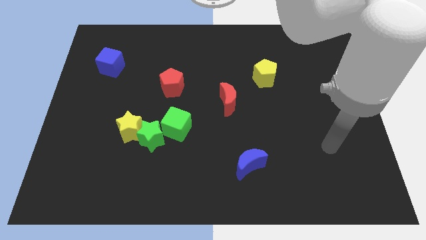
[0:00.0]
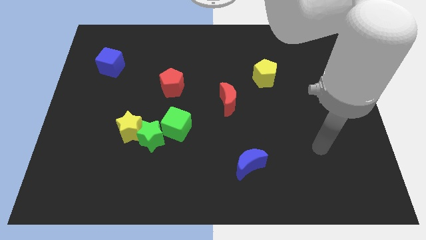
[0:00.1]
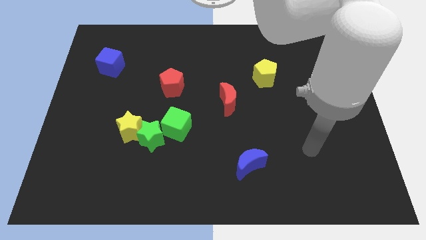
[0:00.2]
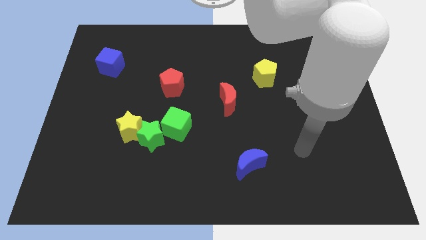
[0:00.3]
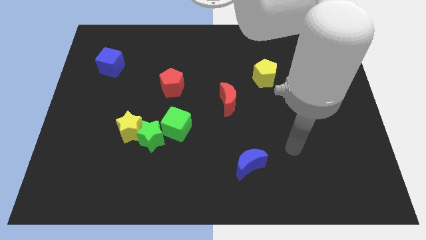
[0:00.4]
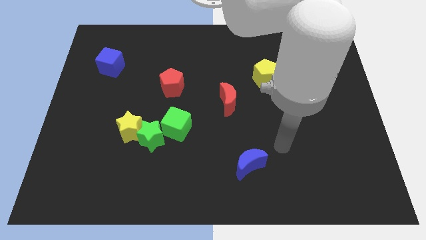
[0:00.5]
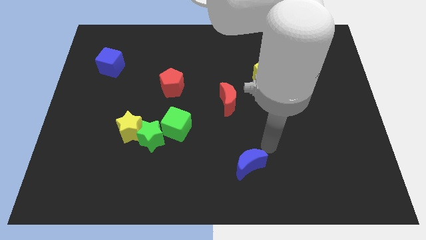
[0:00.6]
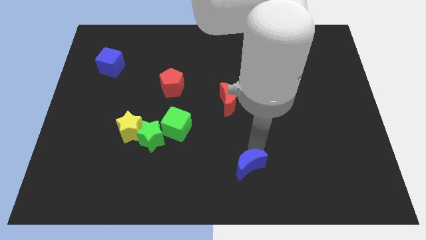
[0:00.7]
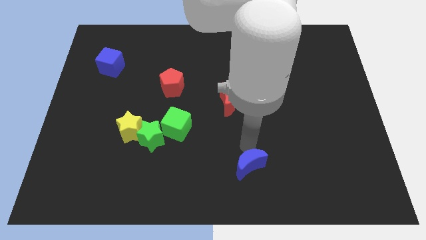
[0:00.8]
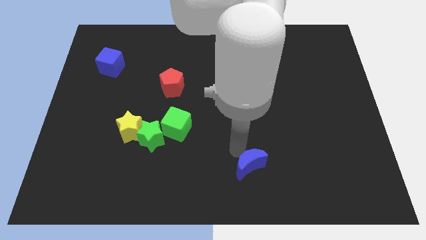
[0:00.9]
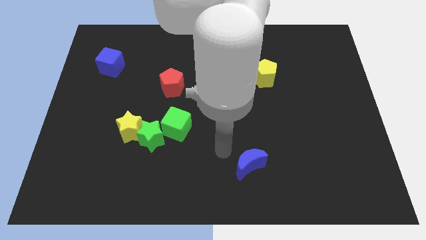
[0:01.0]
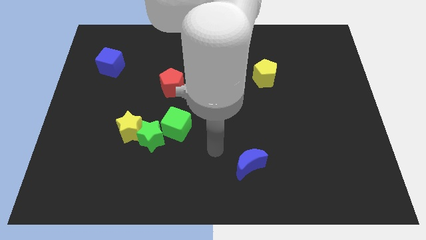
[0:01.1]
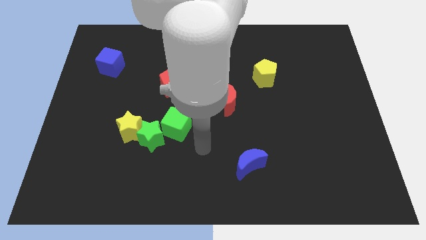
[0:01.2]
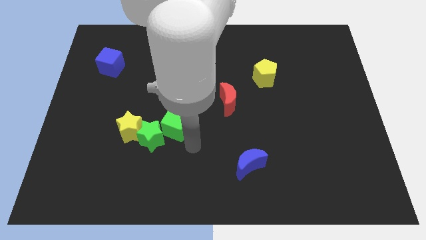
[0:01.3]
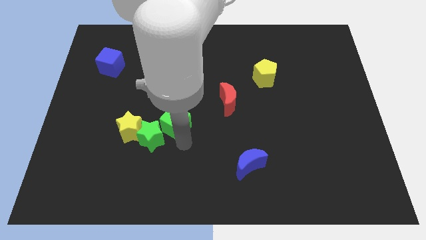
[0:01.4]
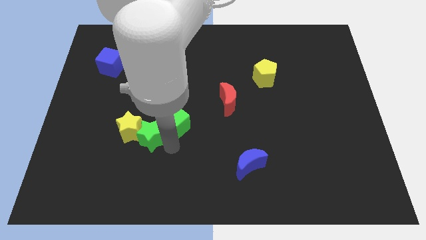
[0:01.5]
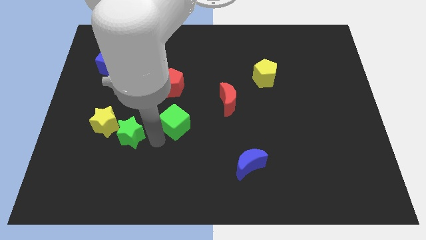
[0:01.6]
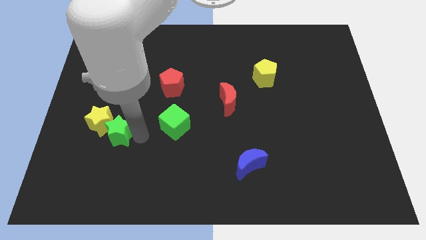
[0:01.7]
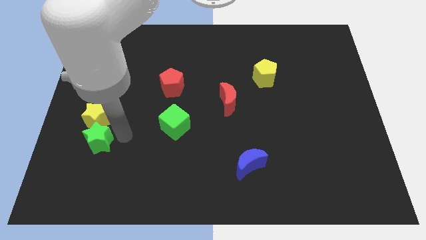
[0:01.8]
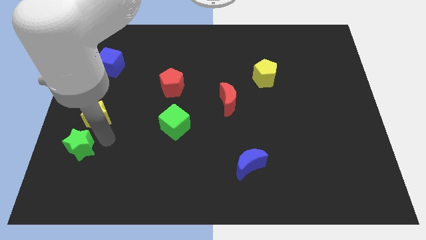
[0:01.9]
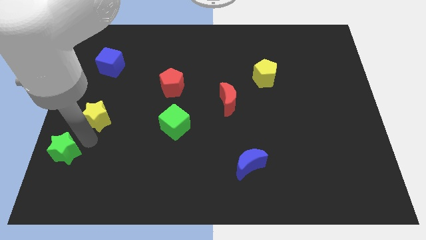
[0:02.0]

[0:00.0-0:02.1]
move the yellow star away from the green star

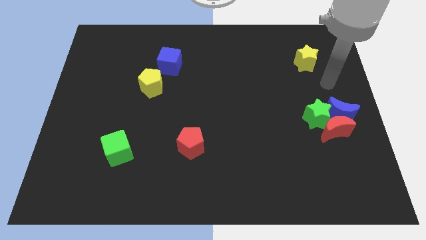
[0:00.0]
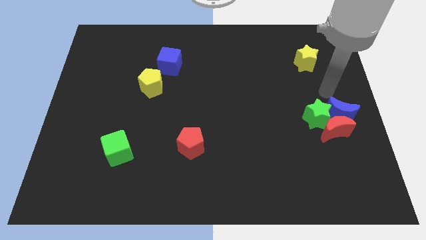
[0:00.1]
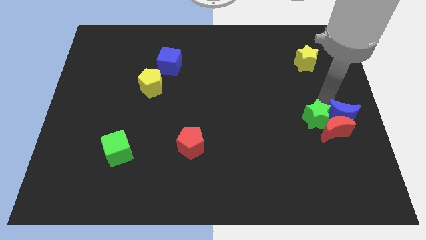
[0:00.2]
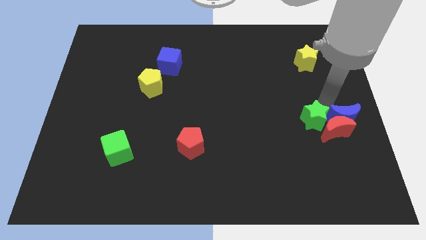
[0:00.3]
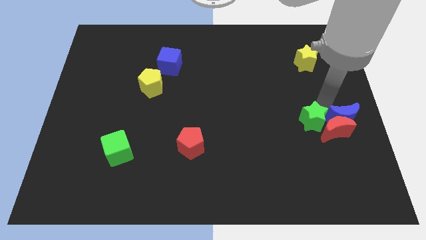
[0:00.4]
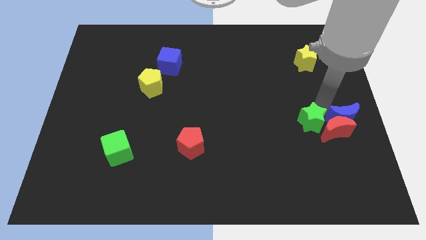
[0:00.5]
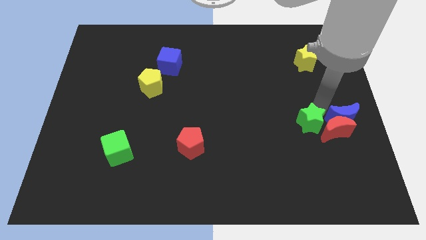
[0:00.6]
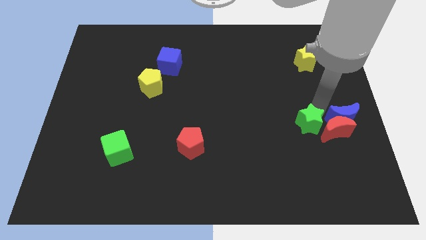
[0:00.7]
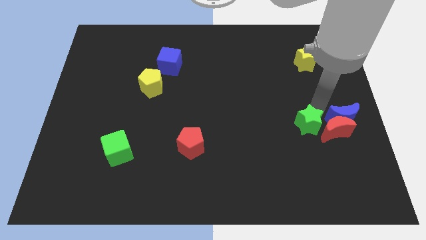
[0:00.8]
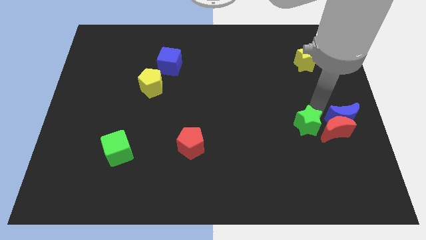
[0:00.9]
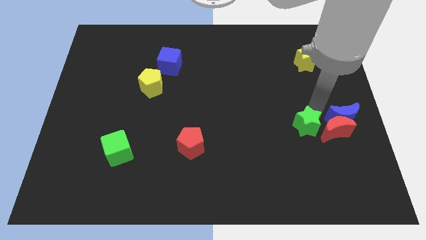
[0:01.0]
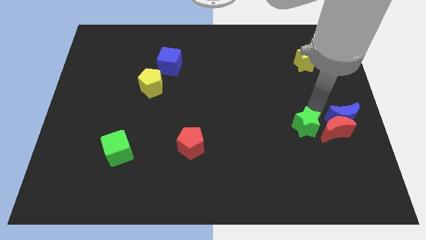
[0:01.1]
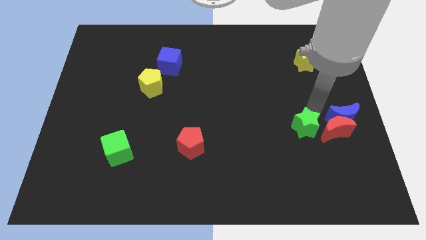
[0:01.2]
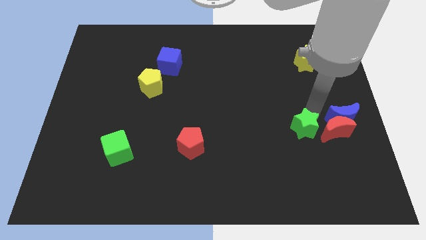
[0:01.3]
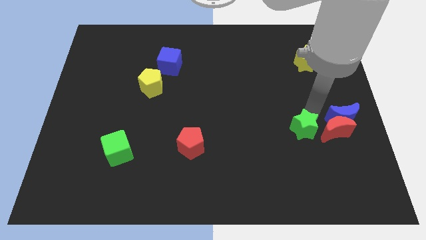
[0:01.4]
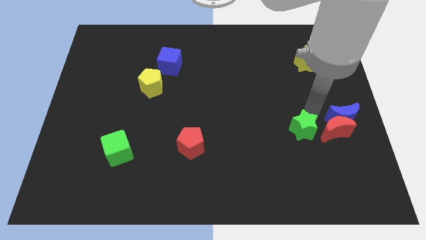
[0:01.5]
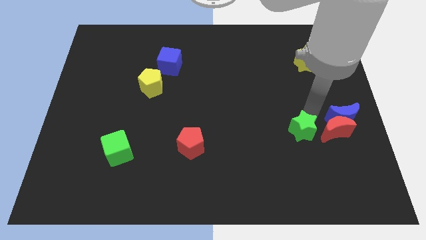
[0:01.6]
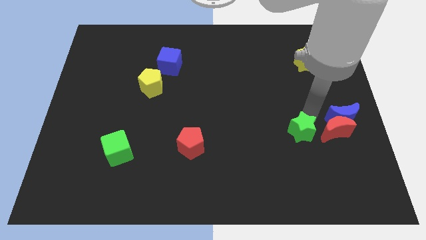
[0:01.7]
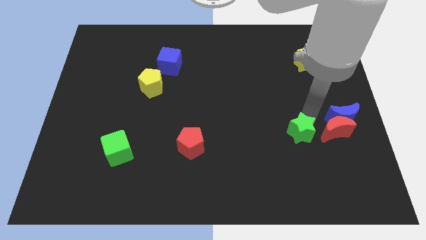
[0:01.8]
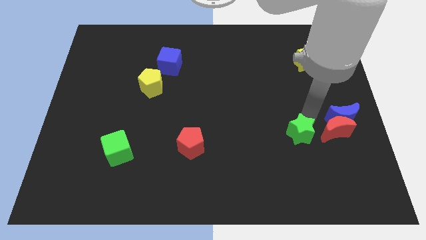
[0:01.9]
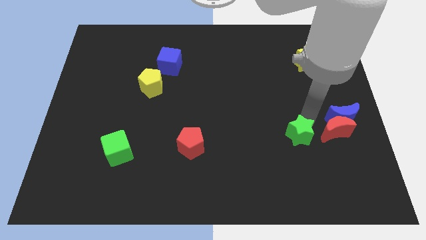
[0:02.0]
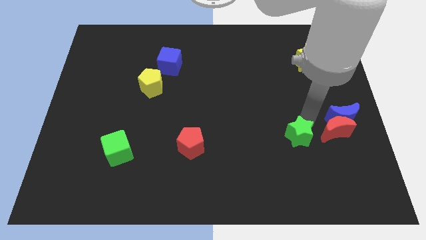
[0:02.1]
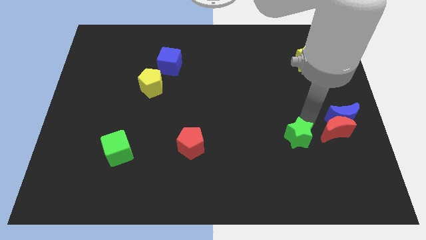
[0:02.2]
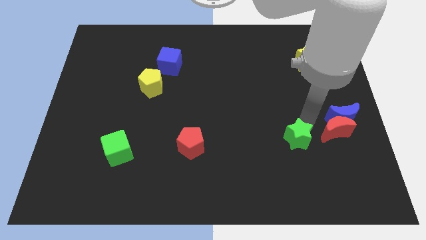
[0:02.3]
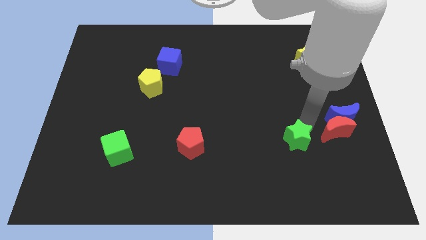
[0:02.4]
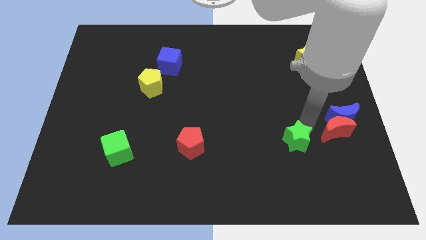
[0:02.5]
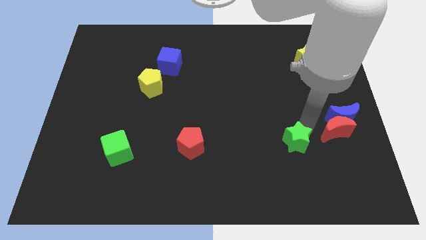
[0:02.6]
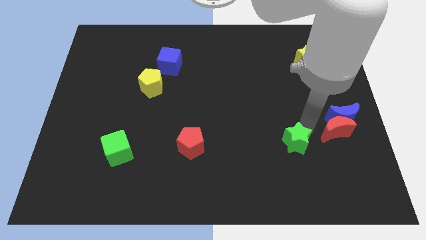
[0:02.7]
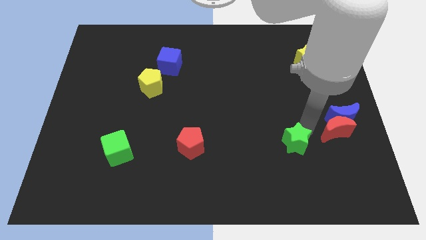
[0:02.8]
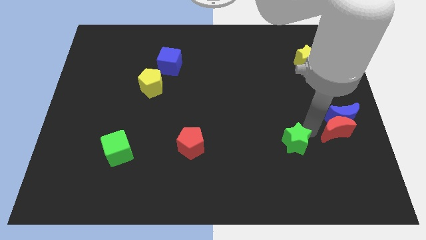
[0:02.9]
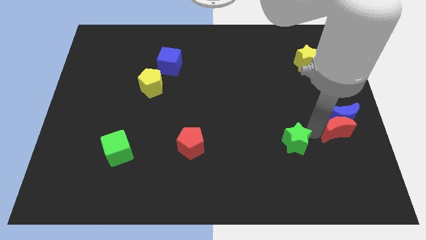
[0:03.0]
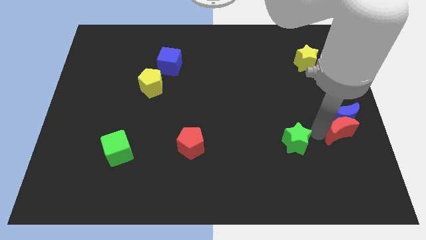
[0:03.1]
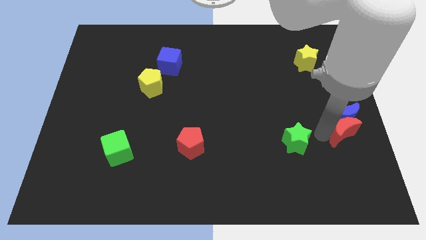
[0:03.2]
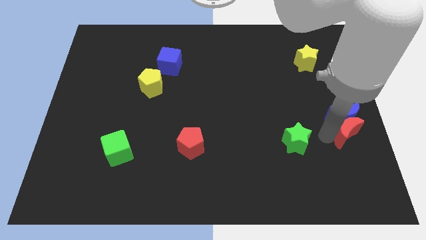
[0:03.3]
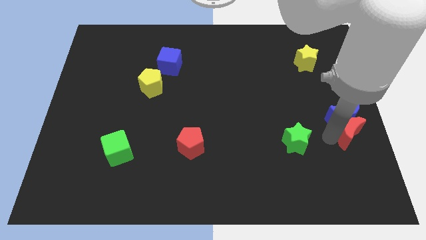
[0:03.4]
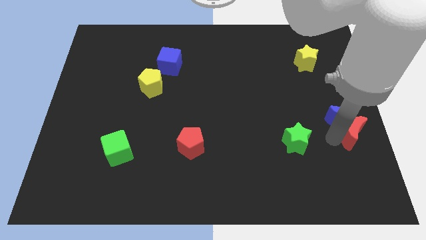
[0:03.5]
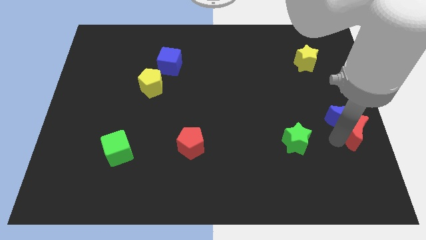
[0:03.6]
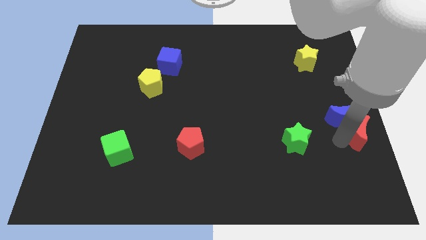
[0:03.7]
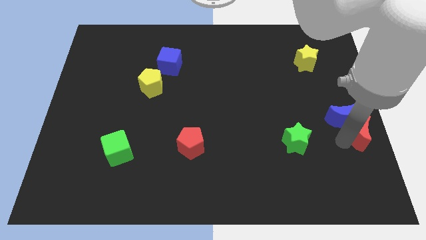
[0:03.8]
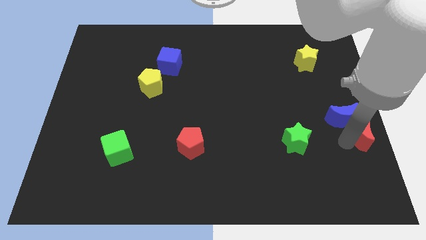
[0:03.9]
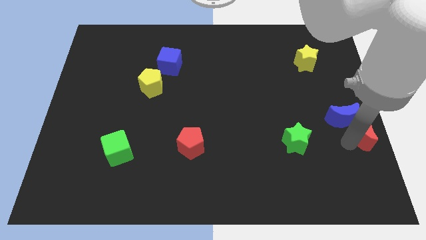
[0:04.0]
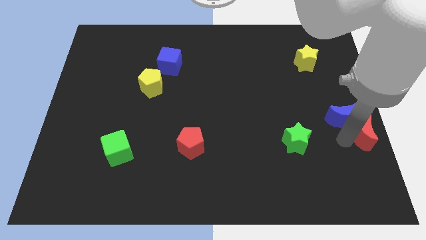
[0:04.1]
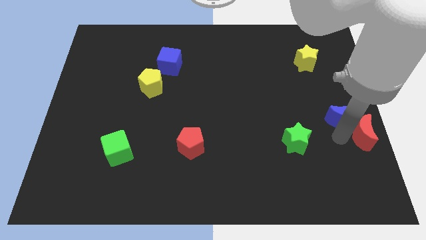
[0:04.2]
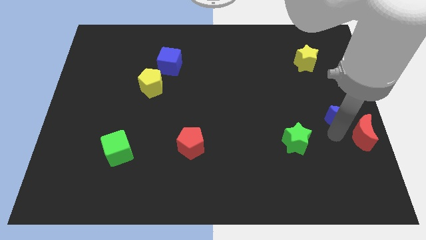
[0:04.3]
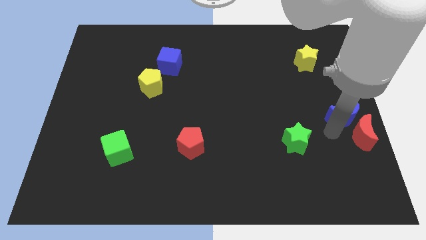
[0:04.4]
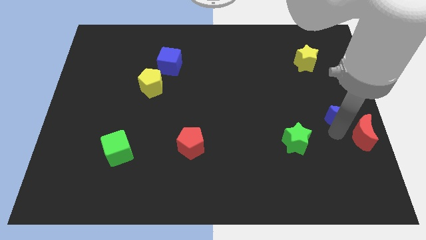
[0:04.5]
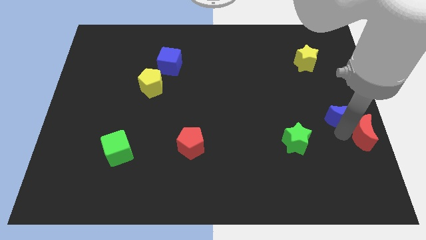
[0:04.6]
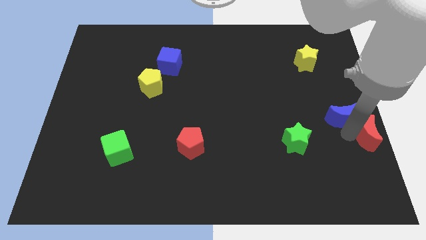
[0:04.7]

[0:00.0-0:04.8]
separate the red moon from the blue moon and green star

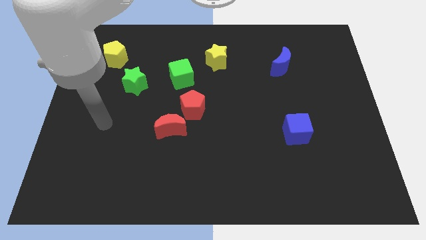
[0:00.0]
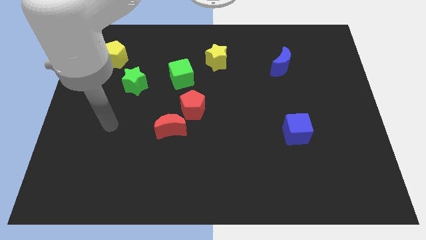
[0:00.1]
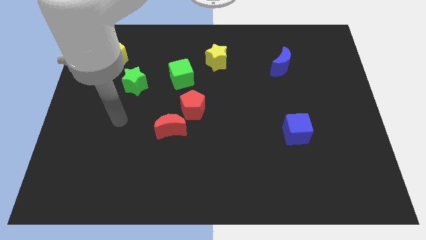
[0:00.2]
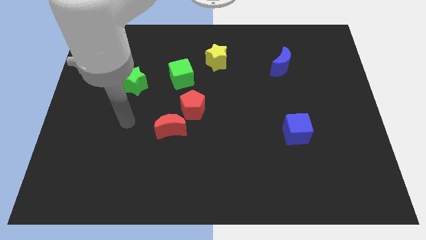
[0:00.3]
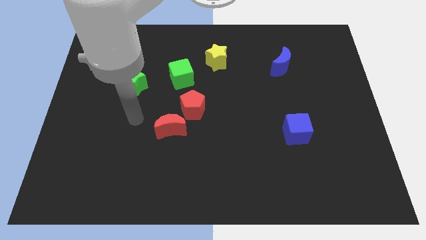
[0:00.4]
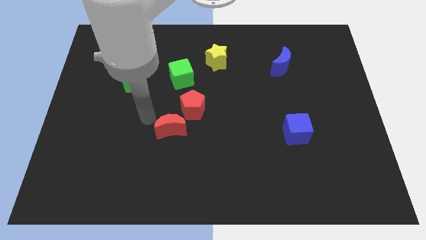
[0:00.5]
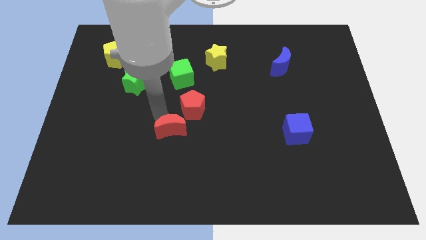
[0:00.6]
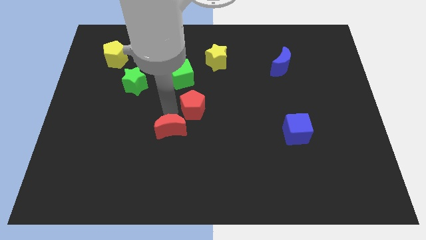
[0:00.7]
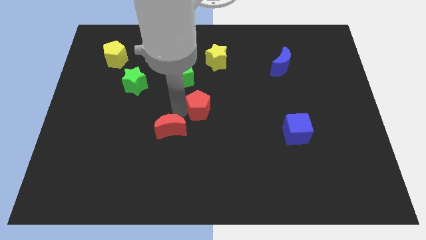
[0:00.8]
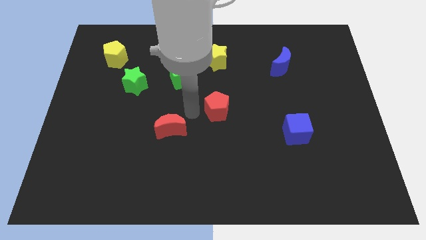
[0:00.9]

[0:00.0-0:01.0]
move the red moon away from the red pentagon

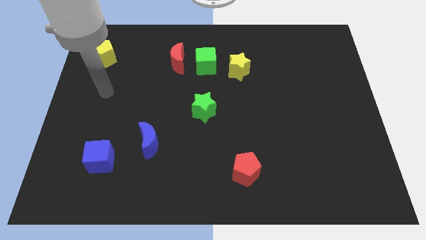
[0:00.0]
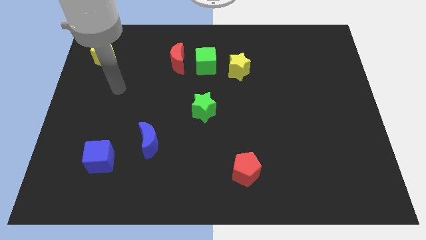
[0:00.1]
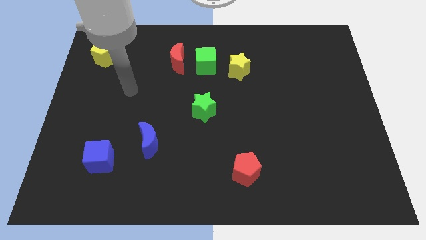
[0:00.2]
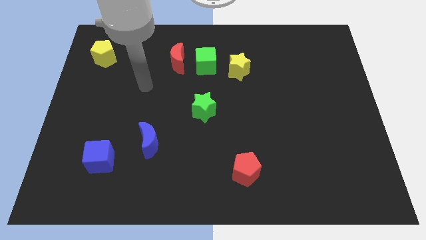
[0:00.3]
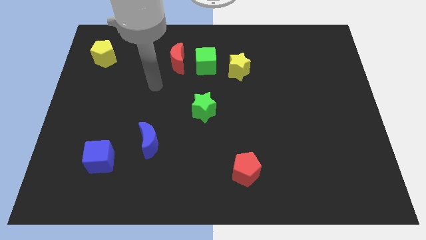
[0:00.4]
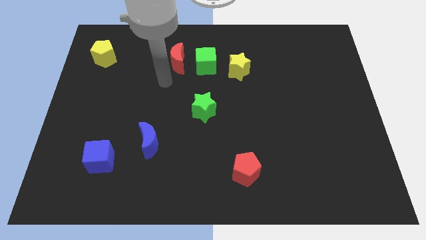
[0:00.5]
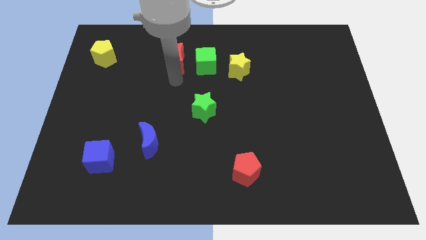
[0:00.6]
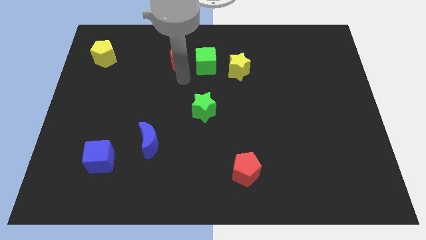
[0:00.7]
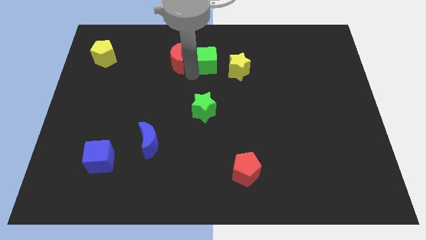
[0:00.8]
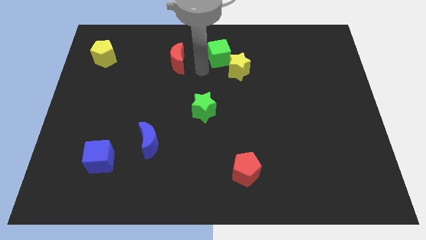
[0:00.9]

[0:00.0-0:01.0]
move the red moon away from the green cube

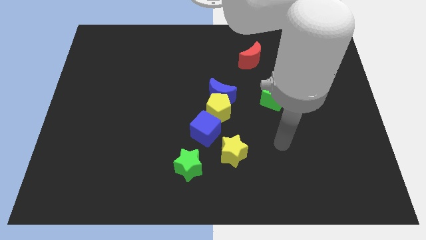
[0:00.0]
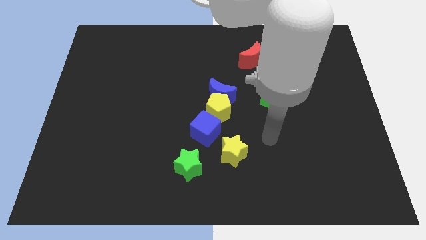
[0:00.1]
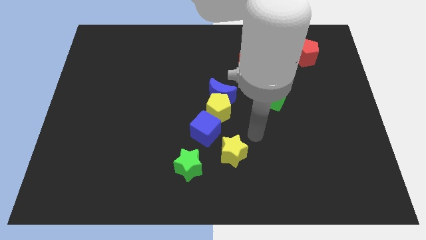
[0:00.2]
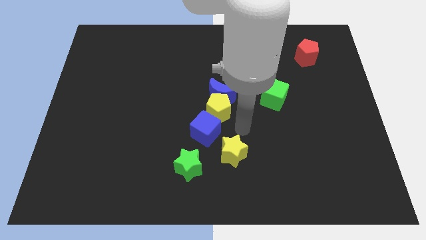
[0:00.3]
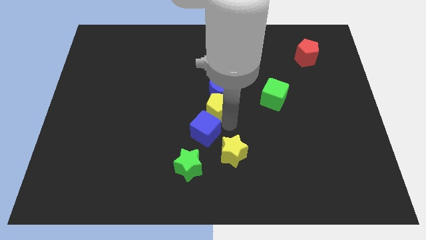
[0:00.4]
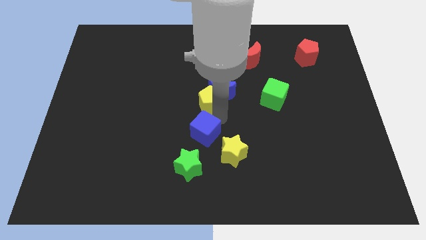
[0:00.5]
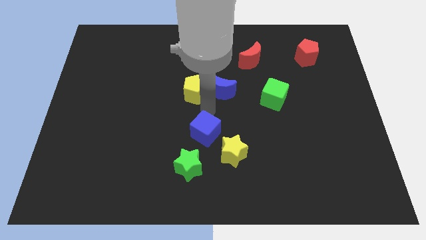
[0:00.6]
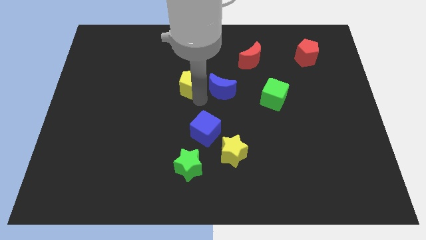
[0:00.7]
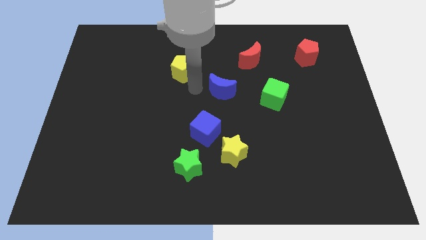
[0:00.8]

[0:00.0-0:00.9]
pull the blue moon apart from the yellow pentagon
